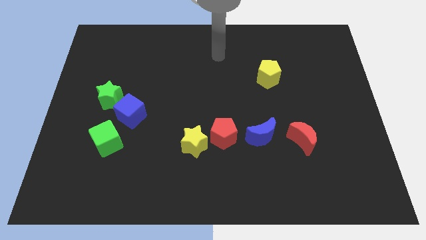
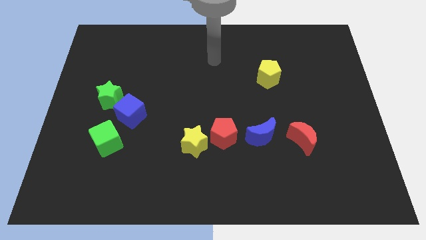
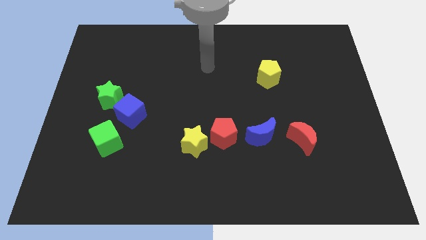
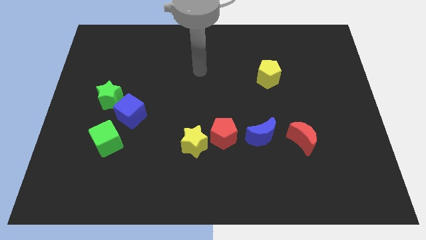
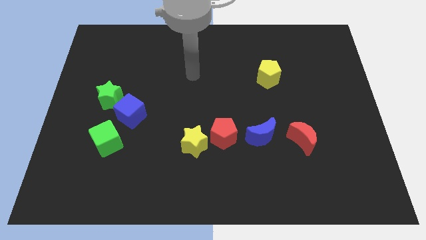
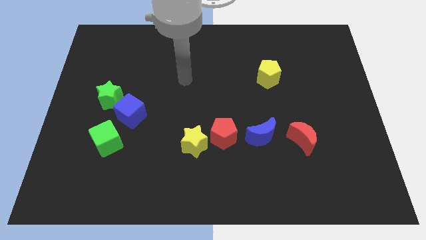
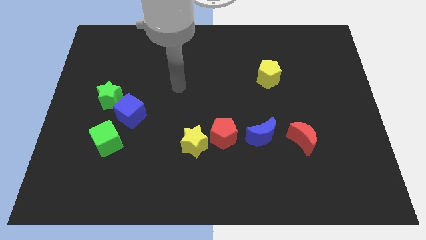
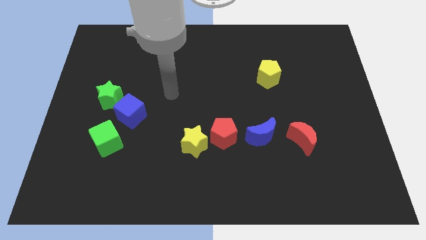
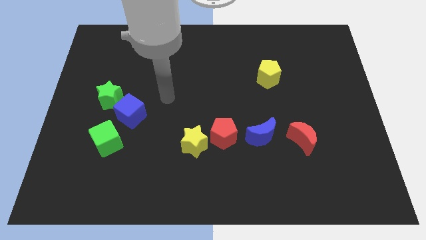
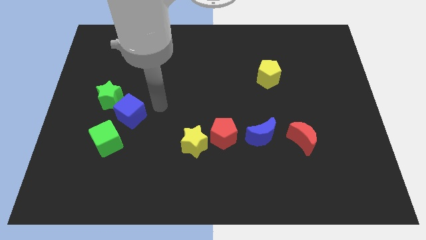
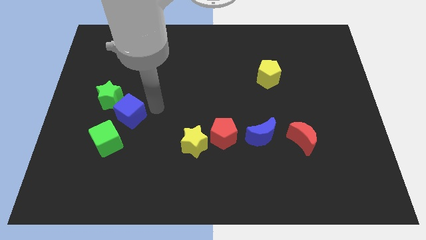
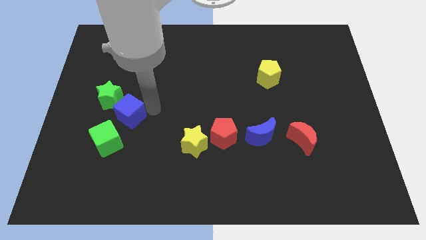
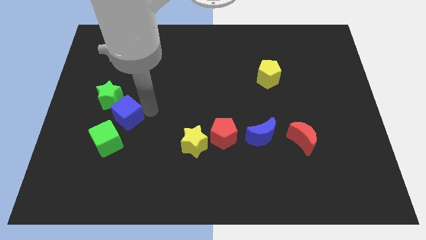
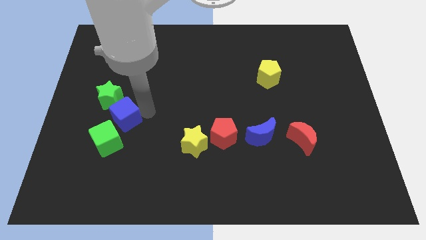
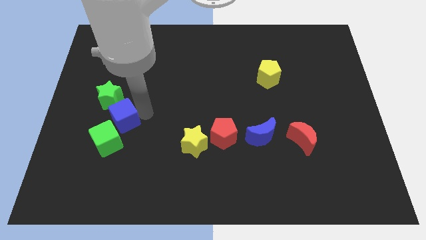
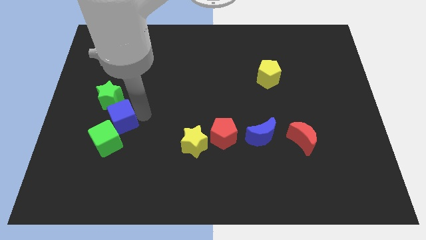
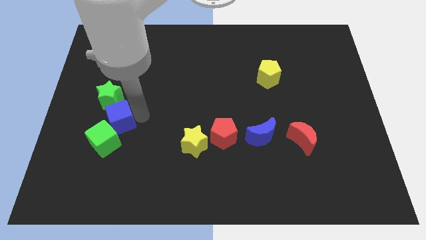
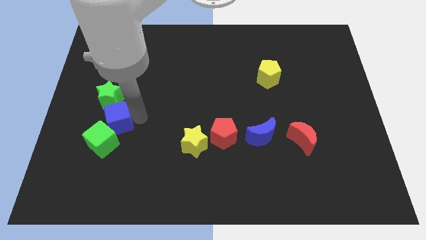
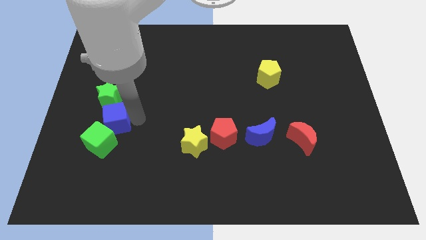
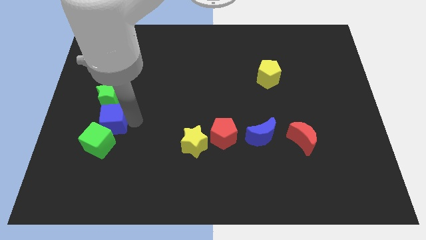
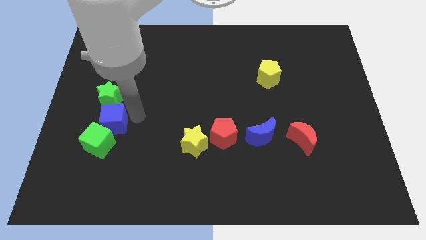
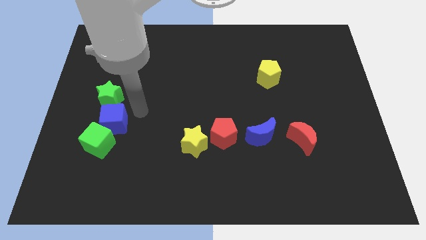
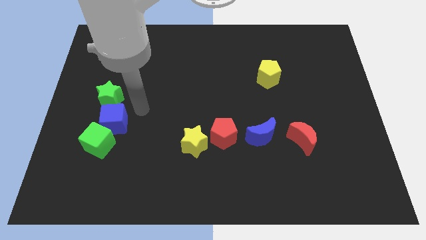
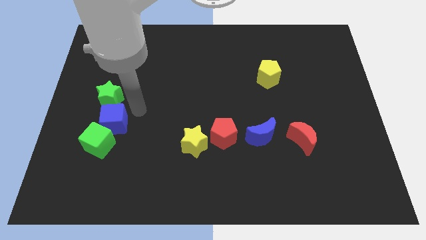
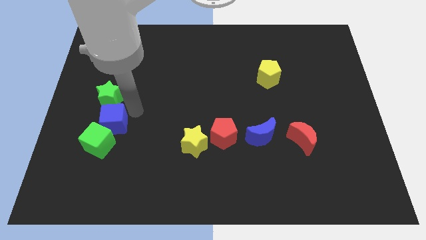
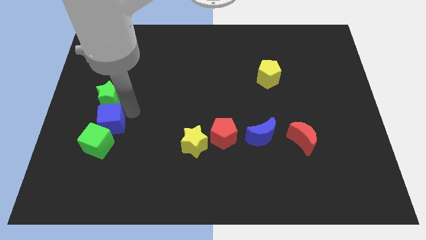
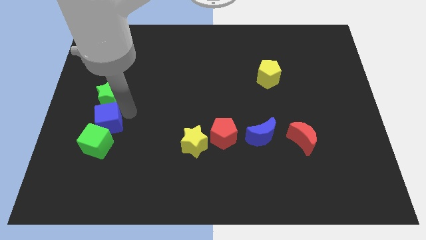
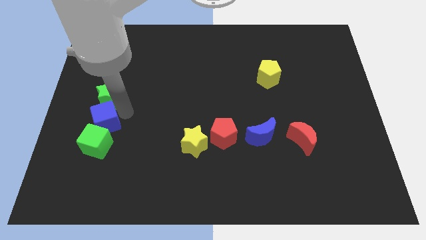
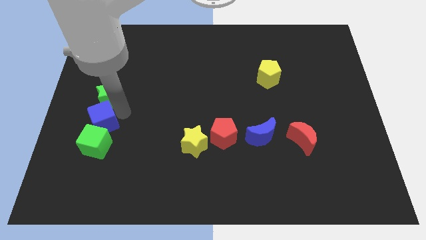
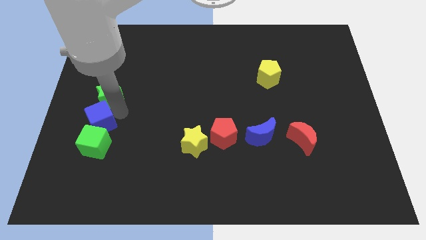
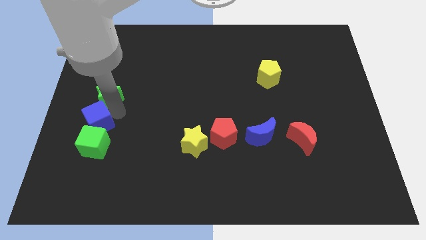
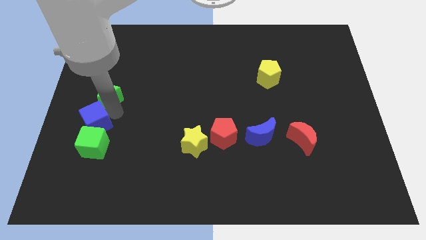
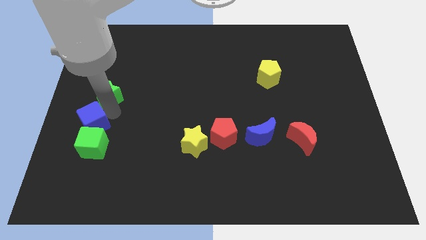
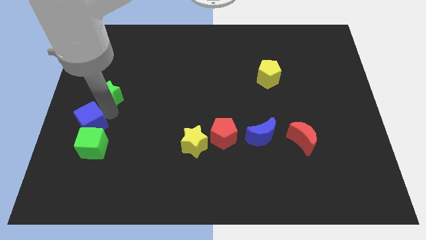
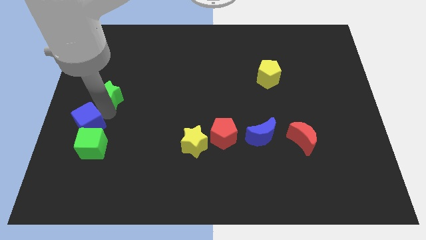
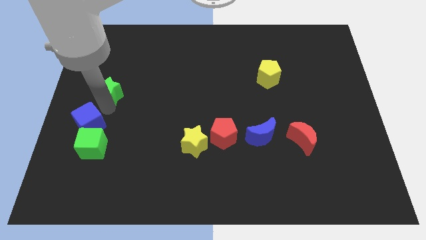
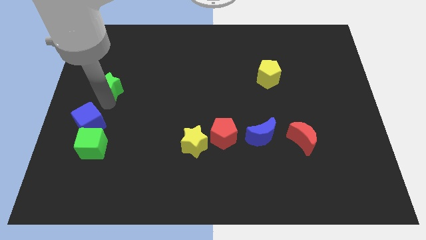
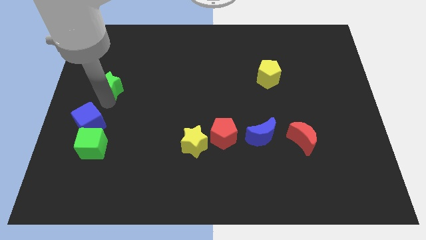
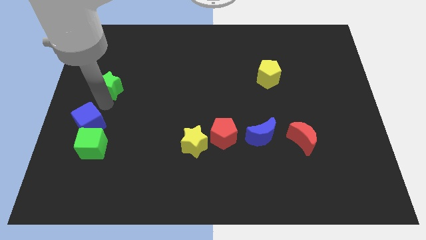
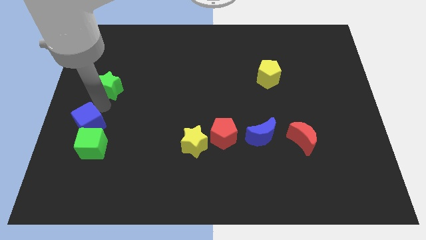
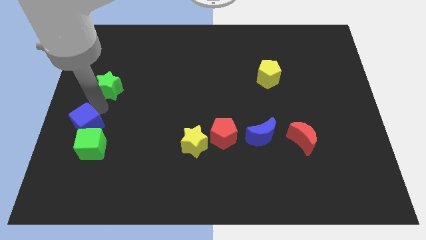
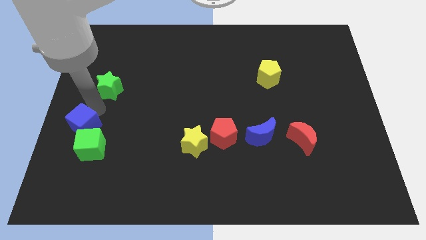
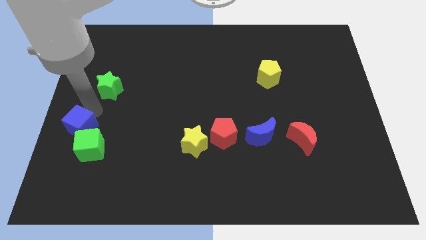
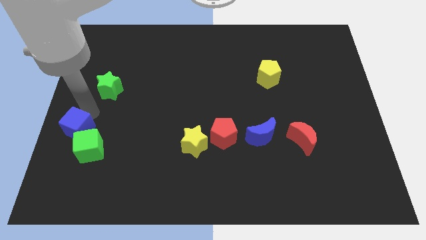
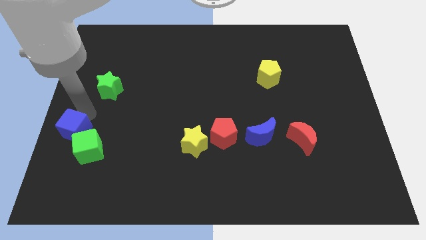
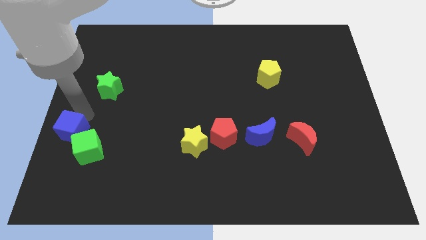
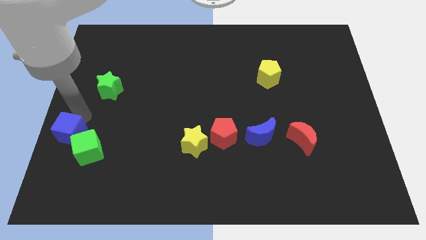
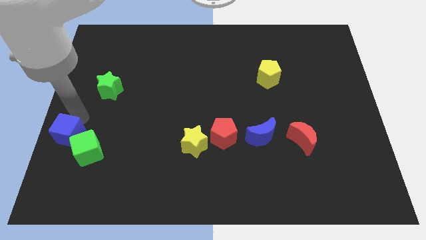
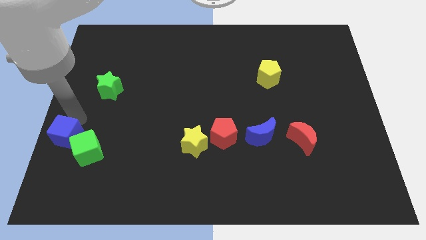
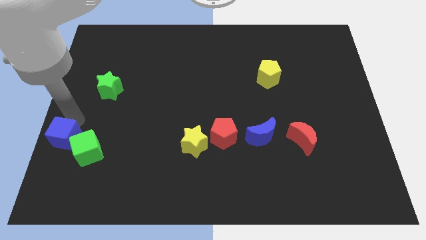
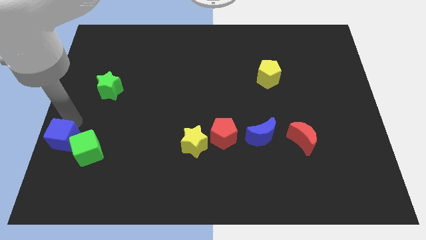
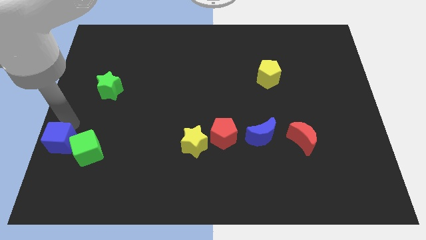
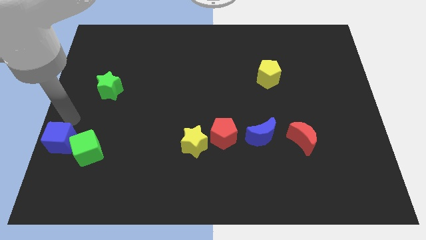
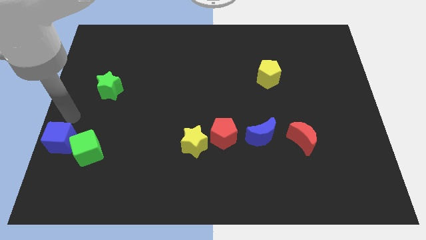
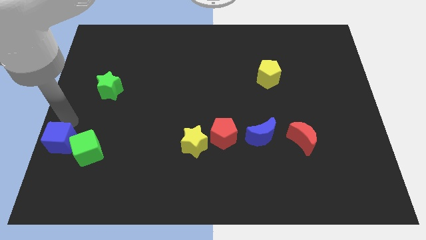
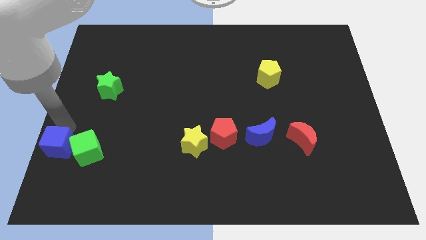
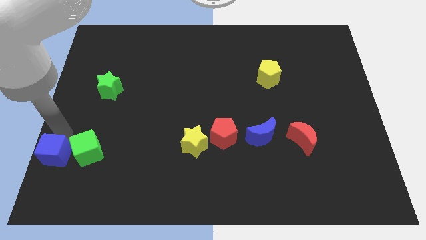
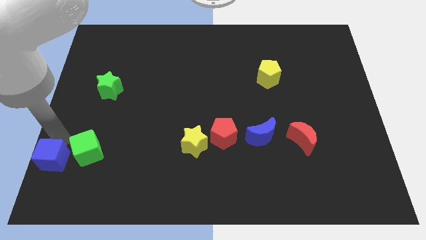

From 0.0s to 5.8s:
move the blue cube to the lower left corner
